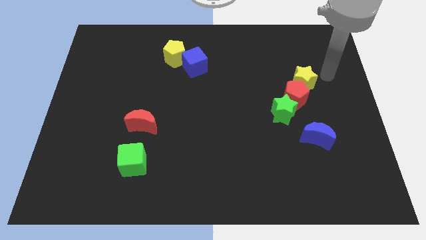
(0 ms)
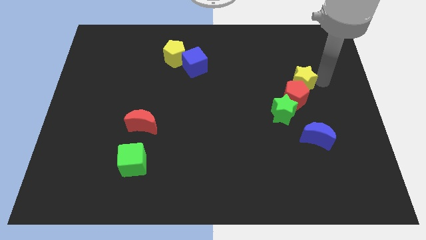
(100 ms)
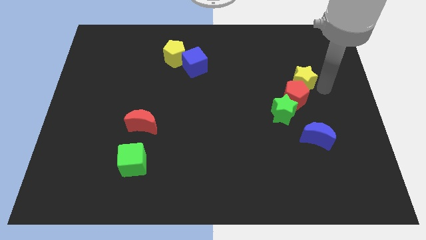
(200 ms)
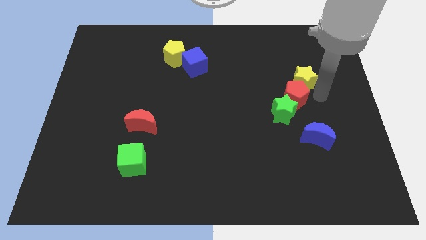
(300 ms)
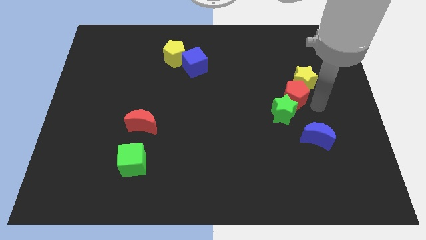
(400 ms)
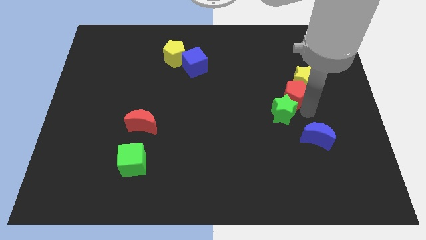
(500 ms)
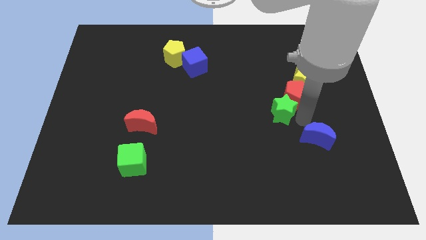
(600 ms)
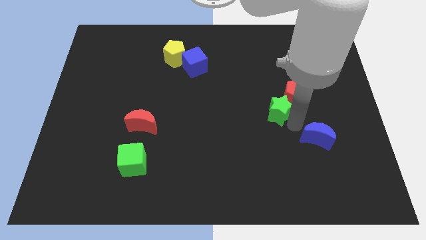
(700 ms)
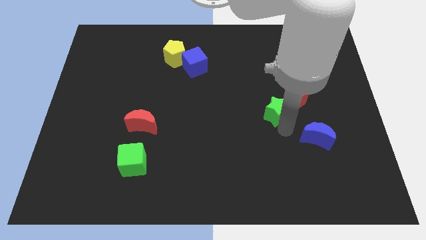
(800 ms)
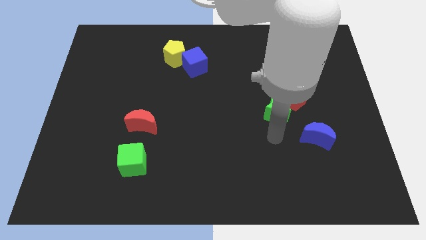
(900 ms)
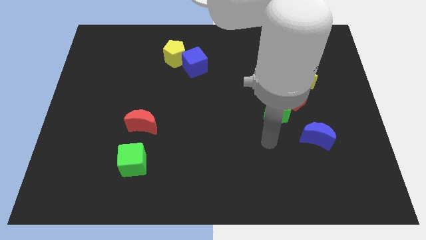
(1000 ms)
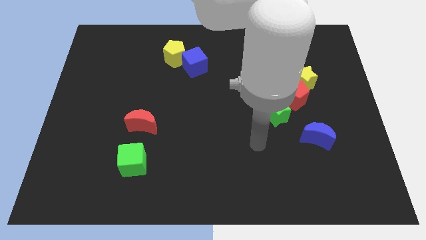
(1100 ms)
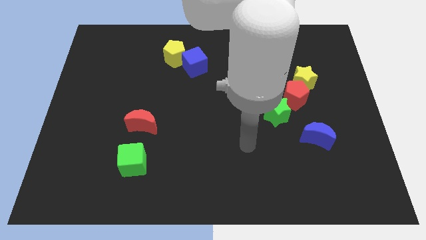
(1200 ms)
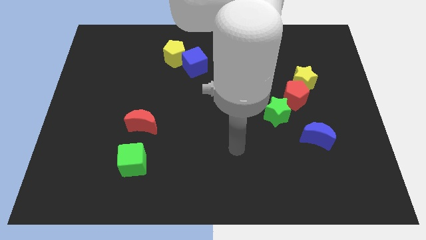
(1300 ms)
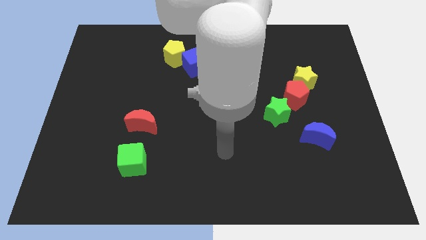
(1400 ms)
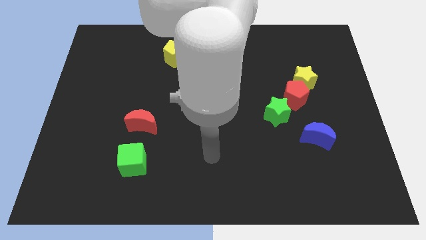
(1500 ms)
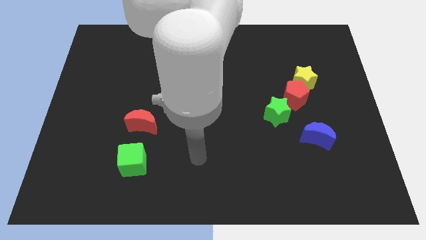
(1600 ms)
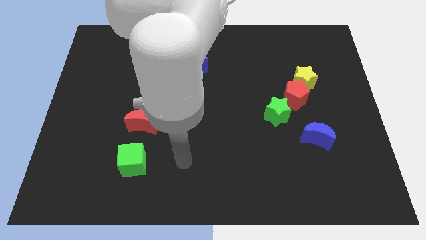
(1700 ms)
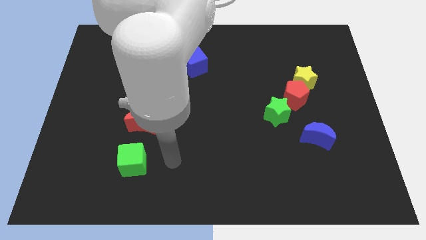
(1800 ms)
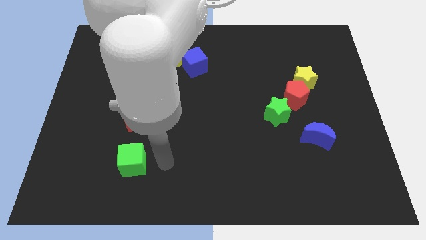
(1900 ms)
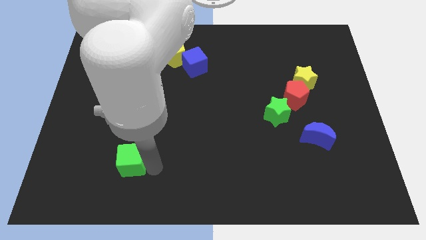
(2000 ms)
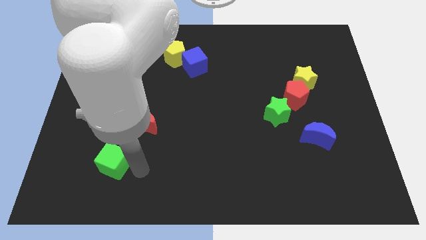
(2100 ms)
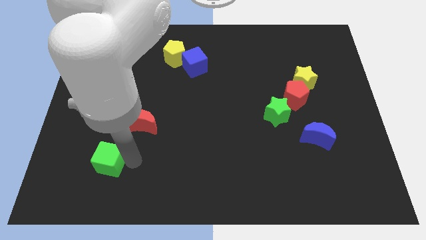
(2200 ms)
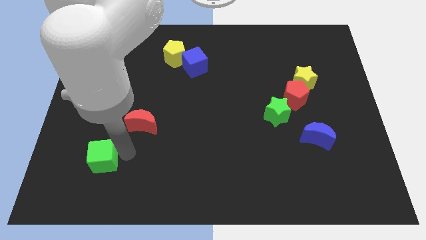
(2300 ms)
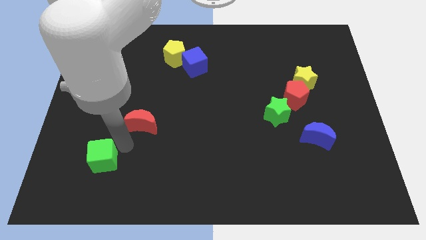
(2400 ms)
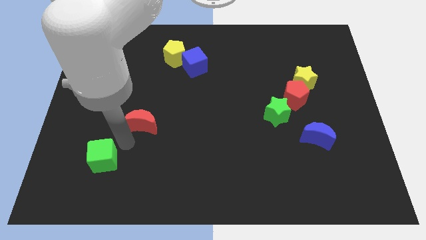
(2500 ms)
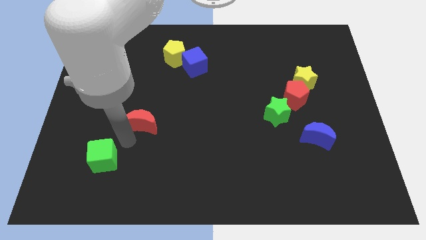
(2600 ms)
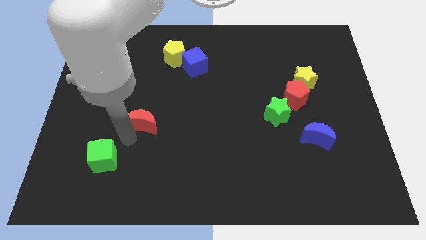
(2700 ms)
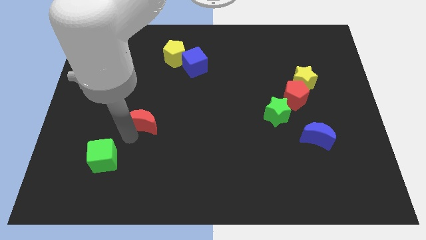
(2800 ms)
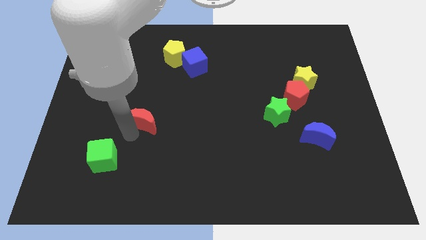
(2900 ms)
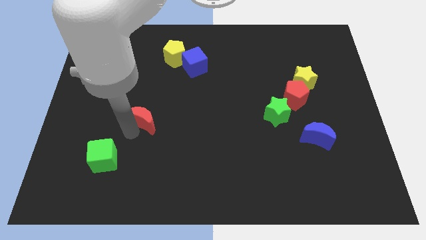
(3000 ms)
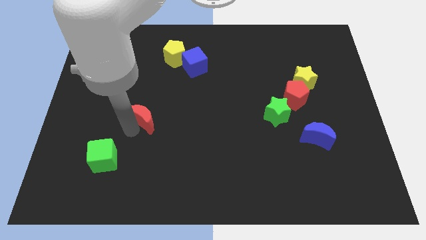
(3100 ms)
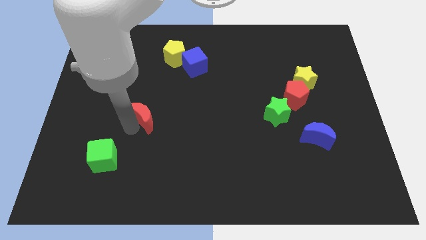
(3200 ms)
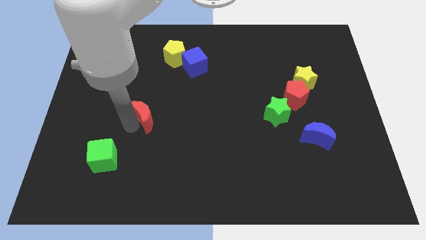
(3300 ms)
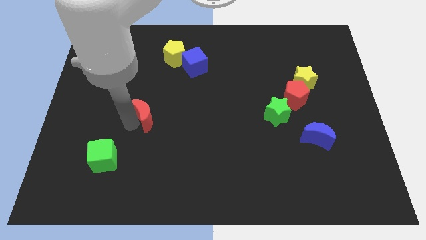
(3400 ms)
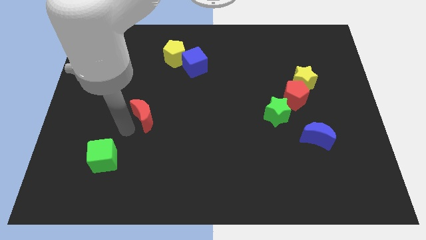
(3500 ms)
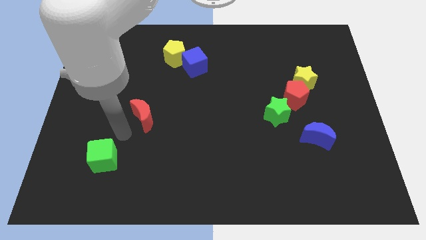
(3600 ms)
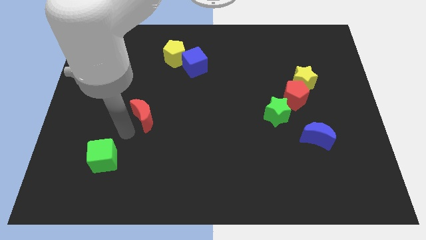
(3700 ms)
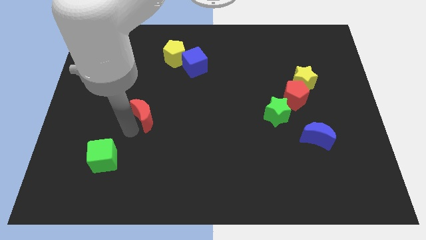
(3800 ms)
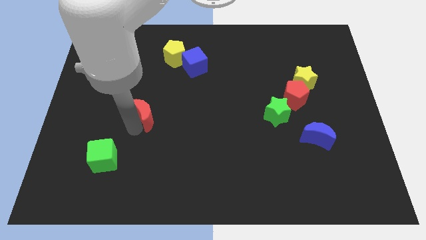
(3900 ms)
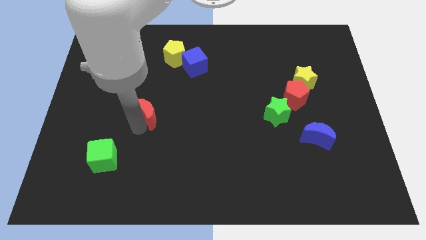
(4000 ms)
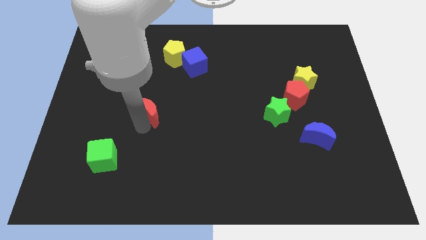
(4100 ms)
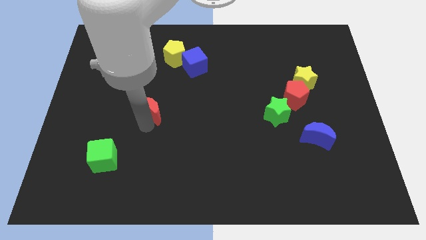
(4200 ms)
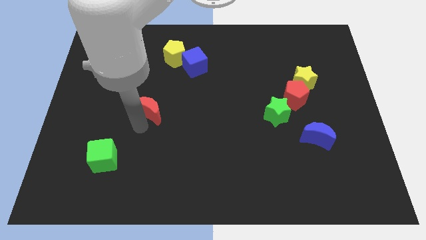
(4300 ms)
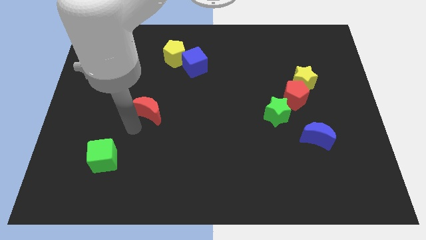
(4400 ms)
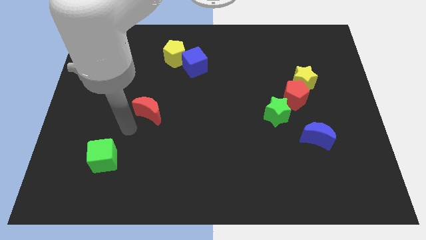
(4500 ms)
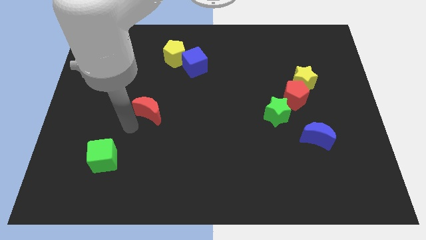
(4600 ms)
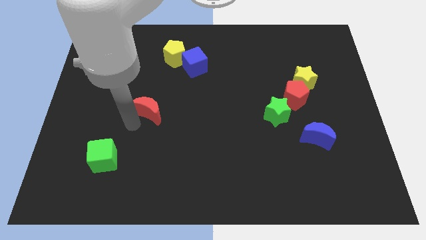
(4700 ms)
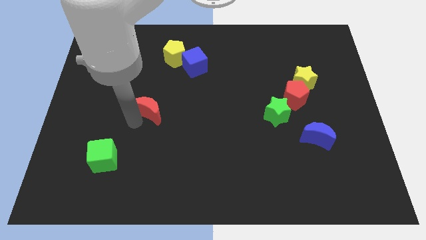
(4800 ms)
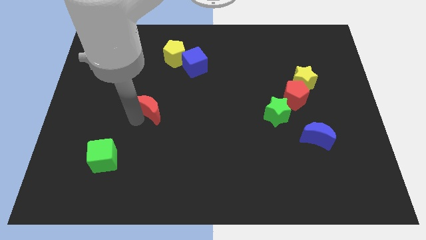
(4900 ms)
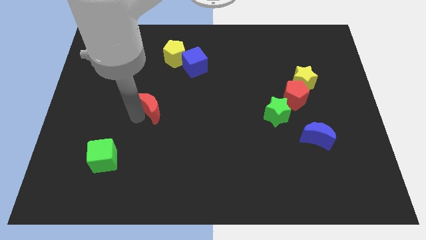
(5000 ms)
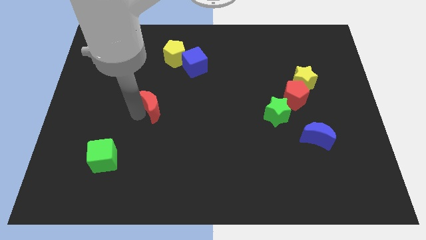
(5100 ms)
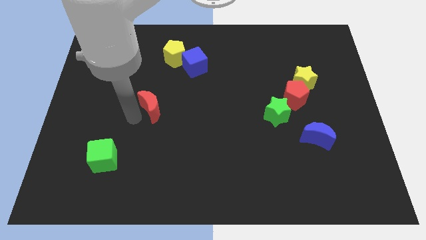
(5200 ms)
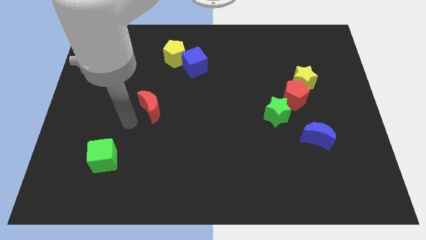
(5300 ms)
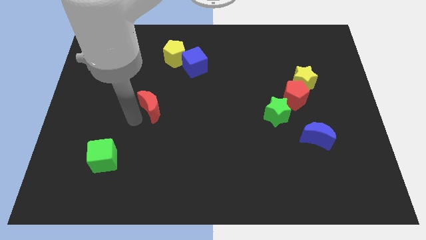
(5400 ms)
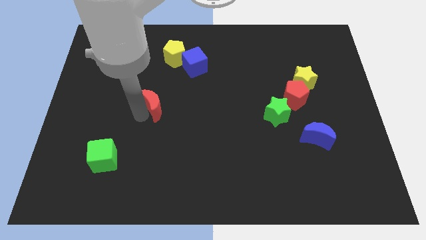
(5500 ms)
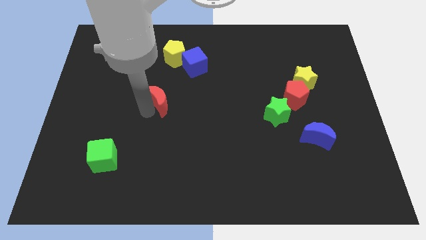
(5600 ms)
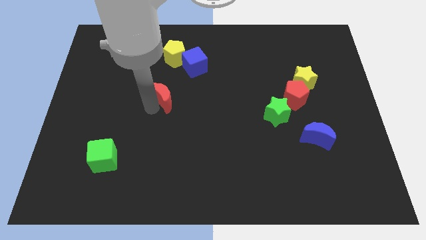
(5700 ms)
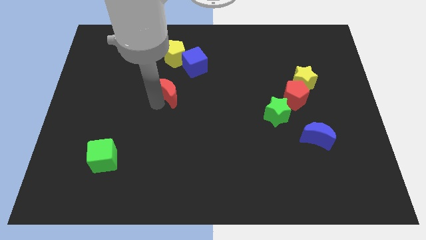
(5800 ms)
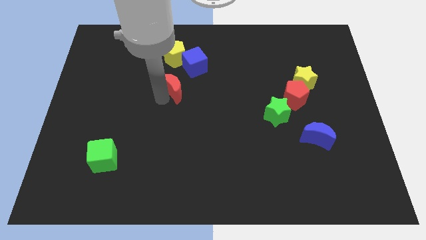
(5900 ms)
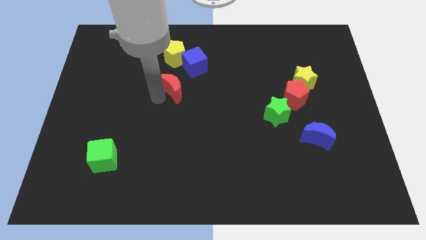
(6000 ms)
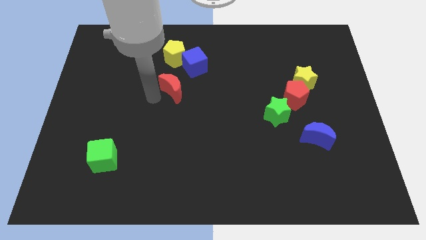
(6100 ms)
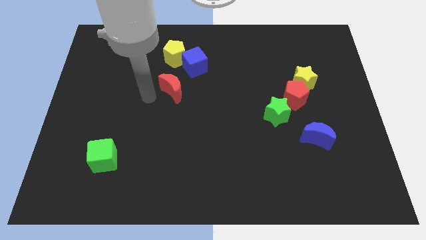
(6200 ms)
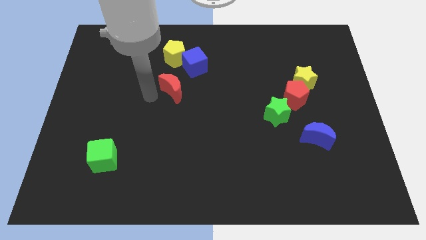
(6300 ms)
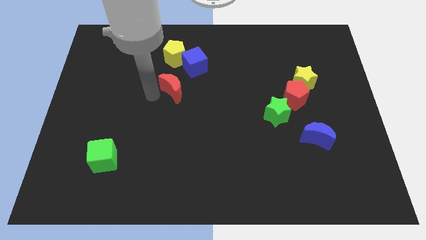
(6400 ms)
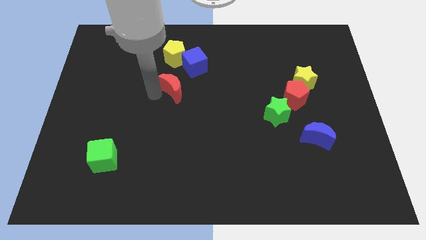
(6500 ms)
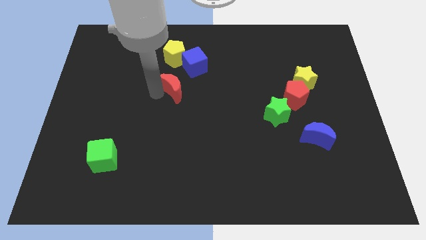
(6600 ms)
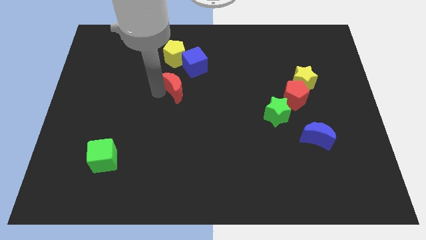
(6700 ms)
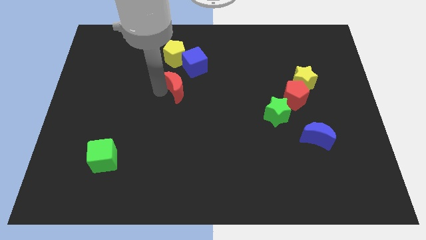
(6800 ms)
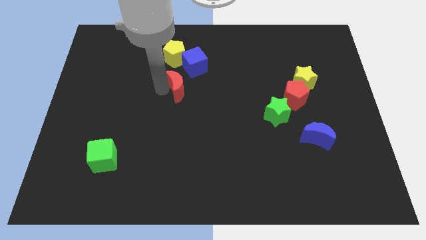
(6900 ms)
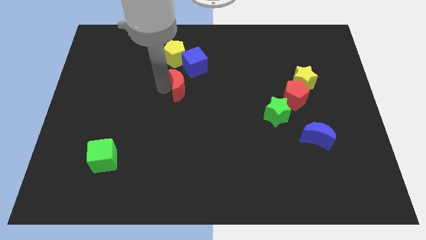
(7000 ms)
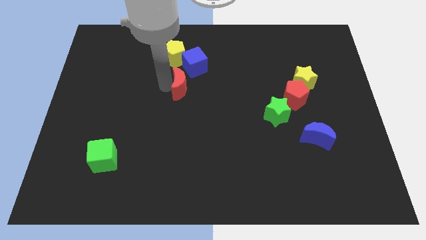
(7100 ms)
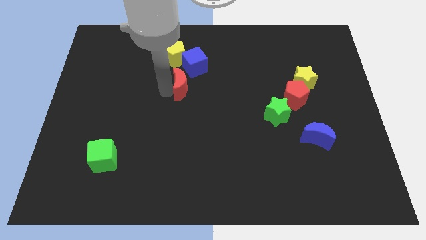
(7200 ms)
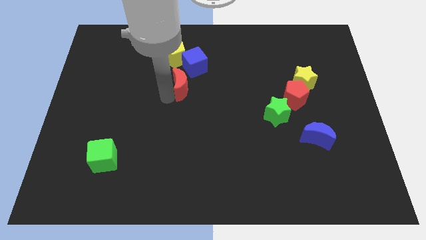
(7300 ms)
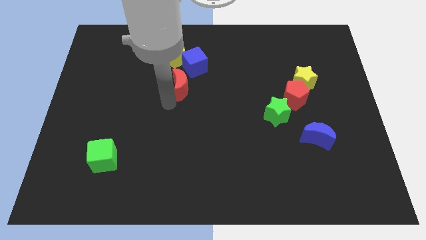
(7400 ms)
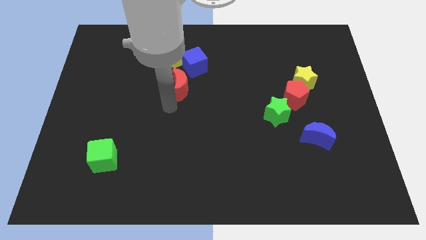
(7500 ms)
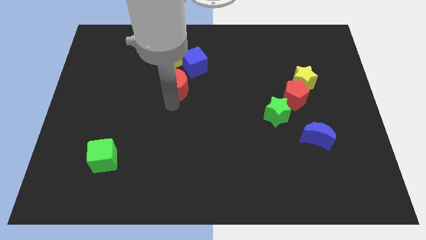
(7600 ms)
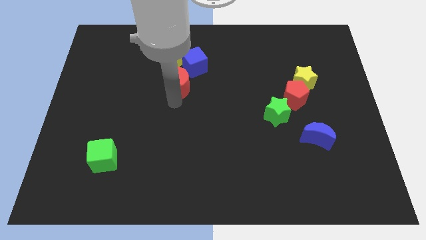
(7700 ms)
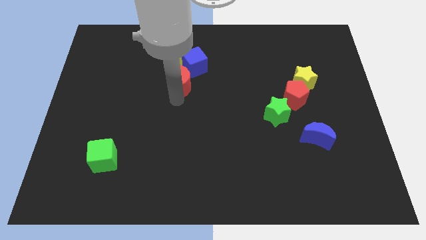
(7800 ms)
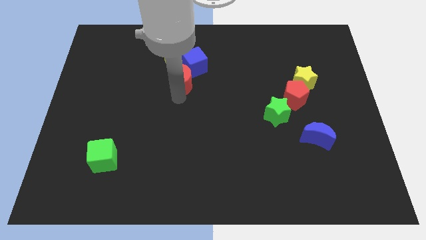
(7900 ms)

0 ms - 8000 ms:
put the red moon close to the blue cube
